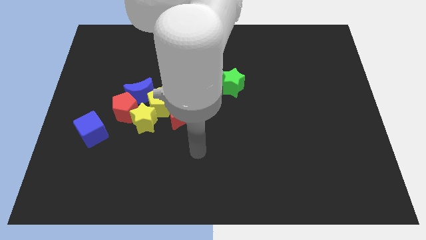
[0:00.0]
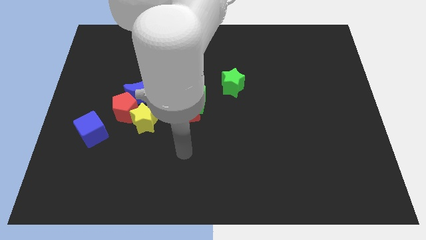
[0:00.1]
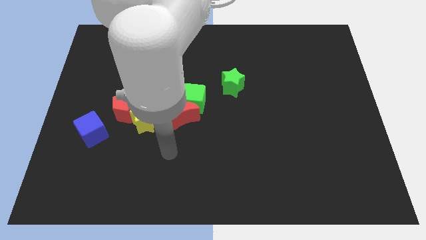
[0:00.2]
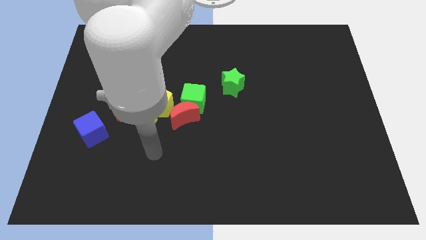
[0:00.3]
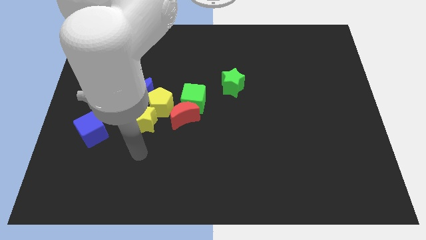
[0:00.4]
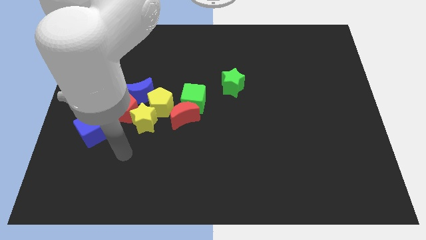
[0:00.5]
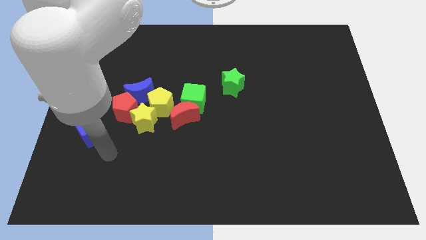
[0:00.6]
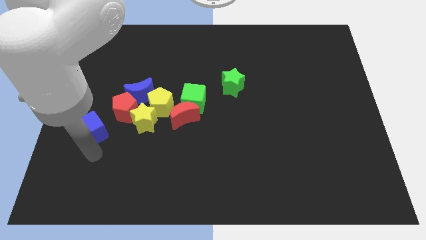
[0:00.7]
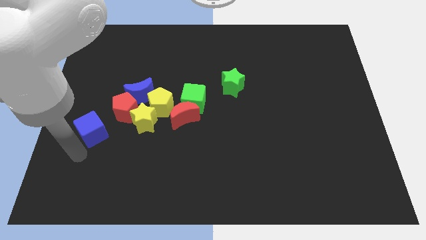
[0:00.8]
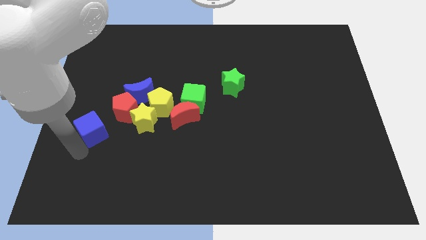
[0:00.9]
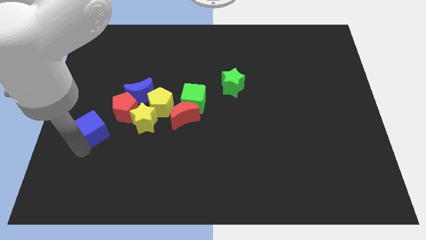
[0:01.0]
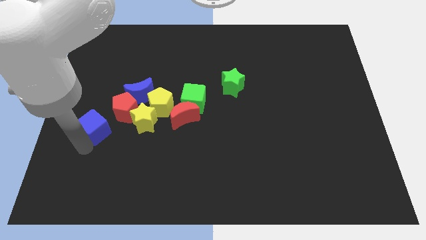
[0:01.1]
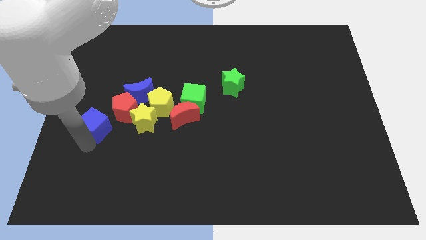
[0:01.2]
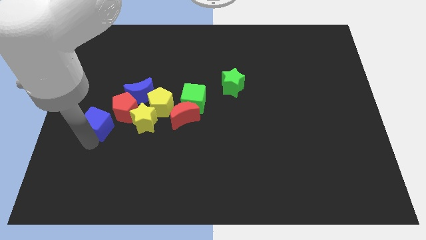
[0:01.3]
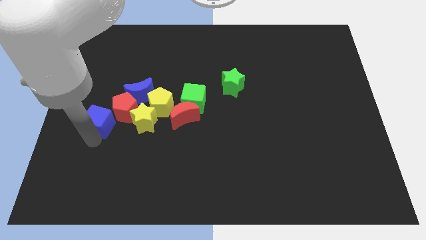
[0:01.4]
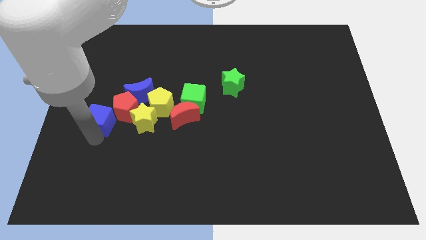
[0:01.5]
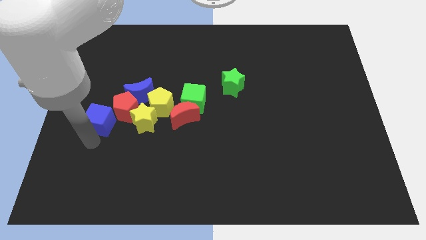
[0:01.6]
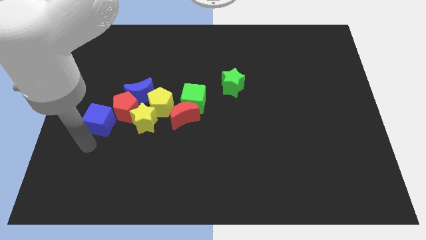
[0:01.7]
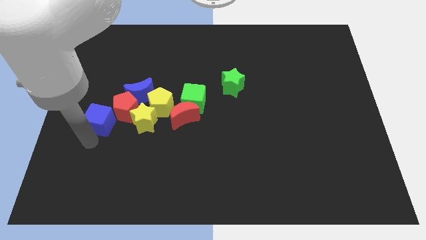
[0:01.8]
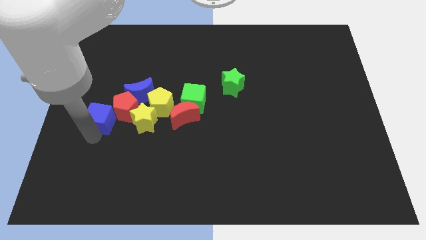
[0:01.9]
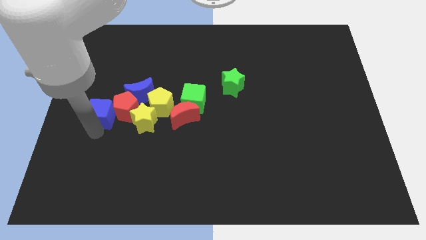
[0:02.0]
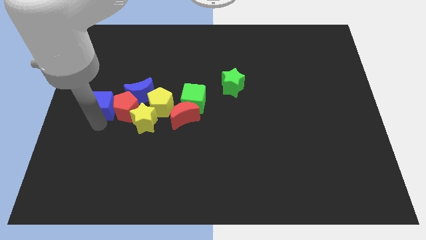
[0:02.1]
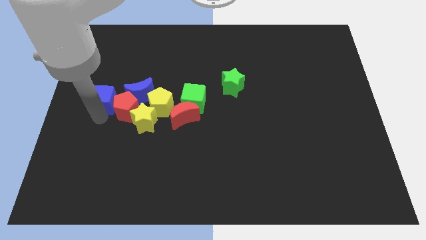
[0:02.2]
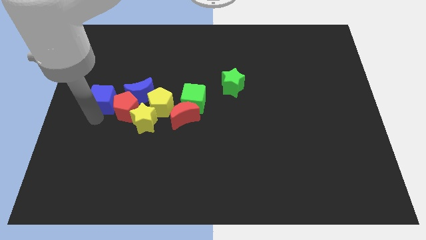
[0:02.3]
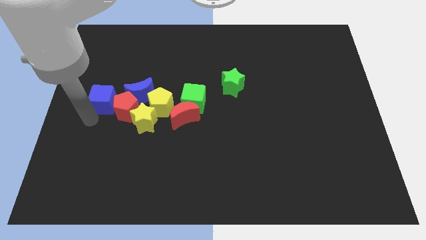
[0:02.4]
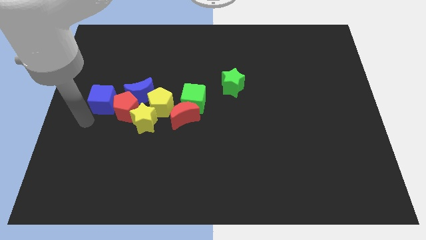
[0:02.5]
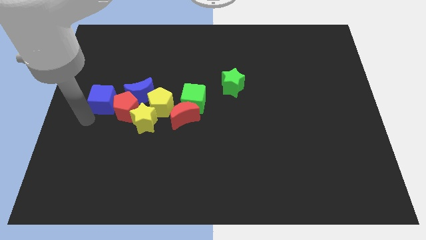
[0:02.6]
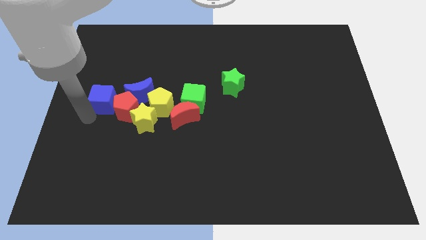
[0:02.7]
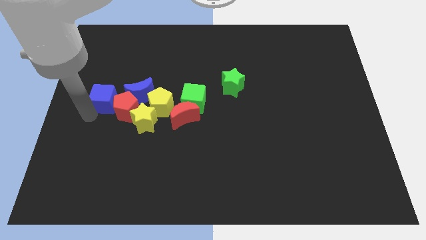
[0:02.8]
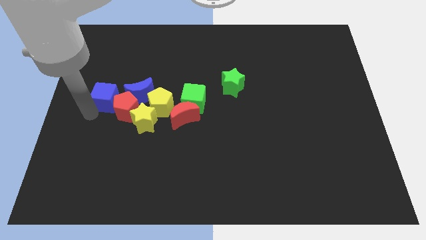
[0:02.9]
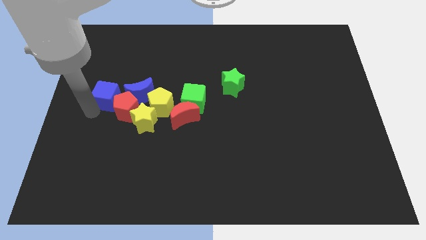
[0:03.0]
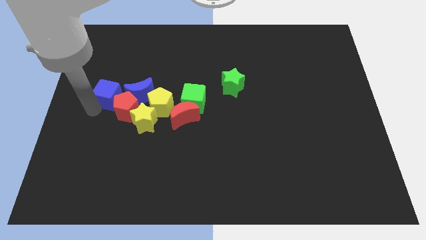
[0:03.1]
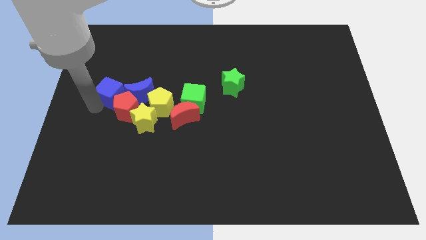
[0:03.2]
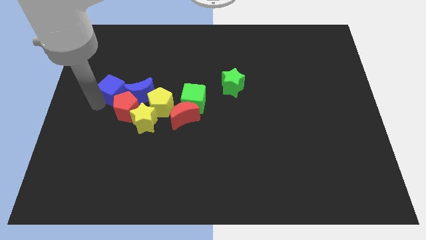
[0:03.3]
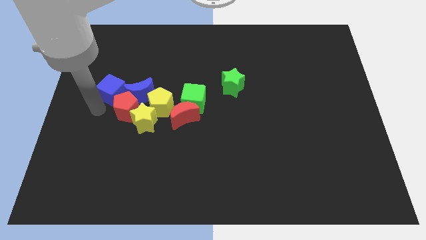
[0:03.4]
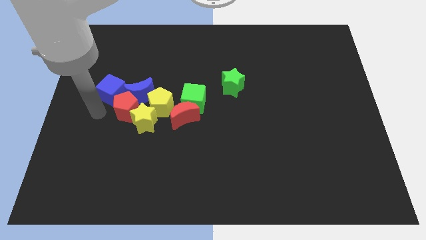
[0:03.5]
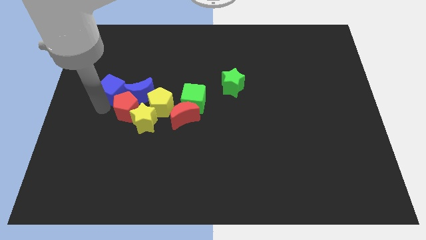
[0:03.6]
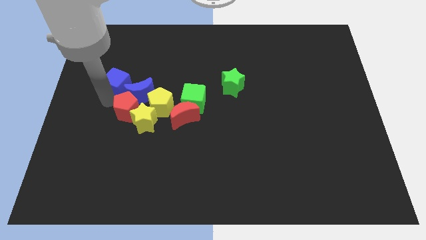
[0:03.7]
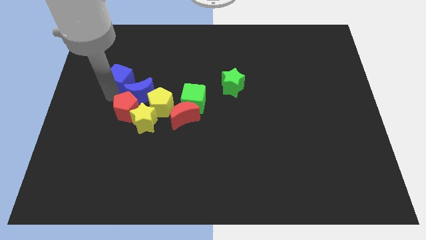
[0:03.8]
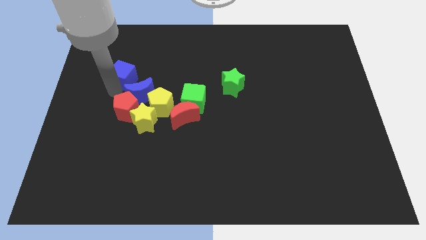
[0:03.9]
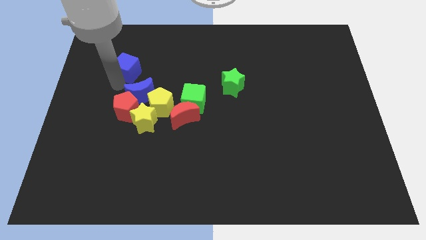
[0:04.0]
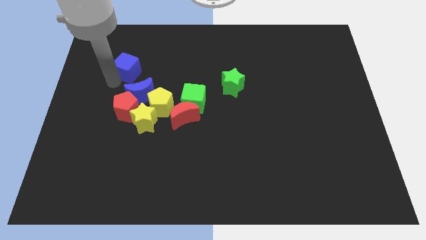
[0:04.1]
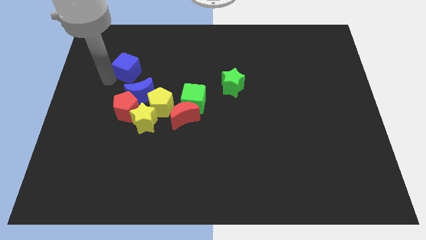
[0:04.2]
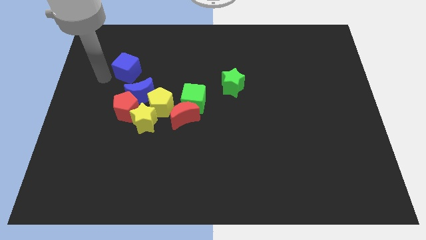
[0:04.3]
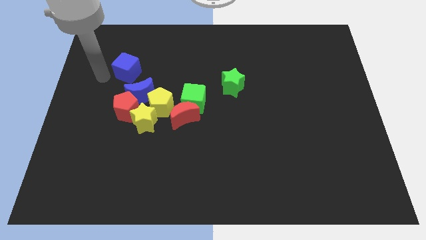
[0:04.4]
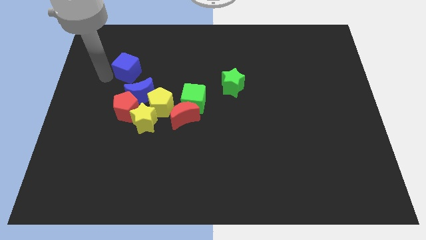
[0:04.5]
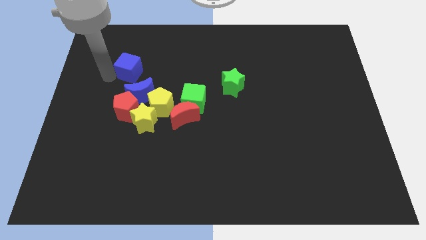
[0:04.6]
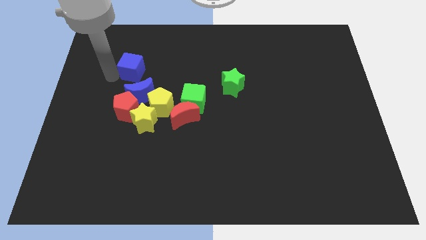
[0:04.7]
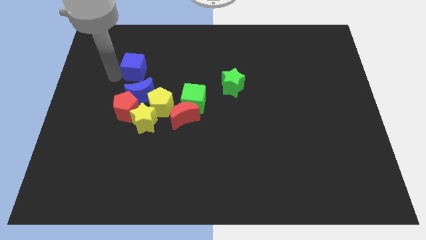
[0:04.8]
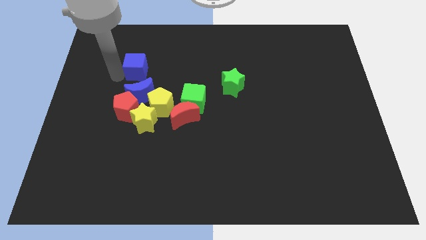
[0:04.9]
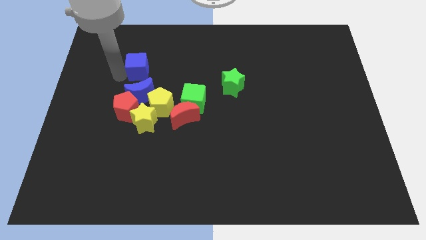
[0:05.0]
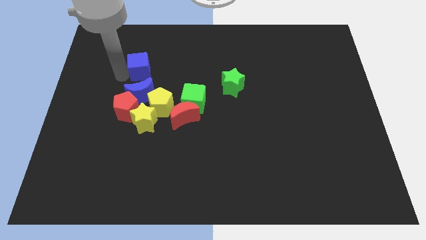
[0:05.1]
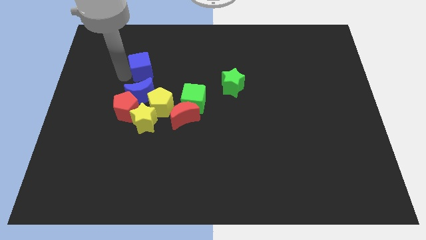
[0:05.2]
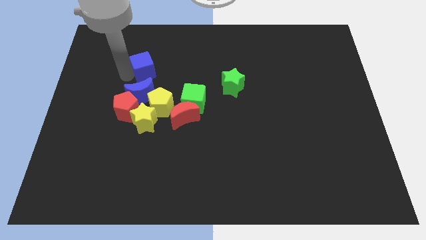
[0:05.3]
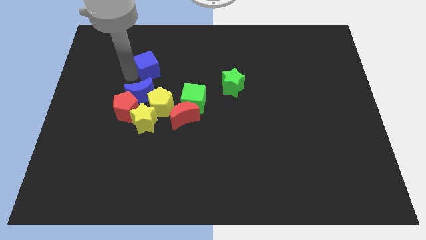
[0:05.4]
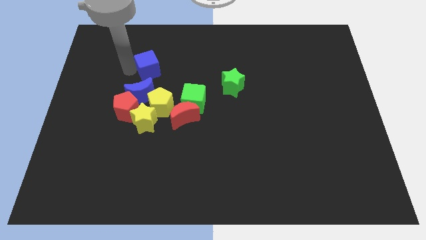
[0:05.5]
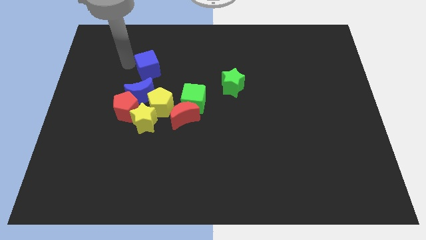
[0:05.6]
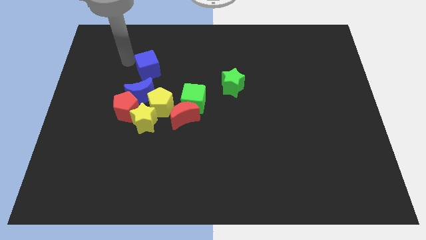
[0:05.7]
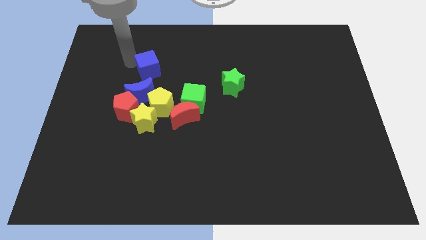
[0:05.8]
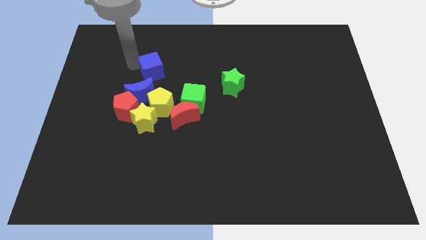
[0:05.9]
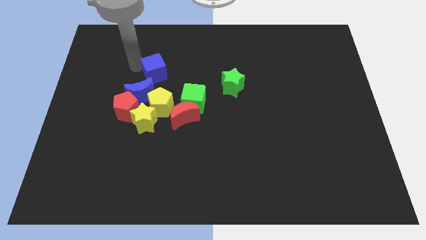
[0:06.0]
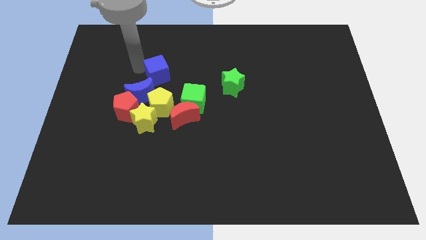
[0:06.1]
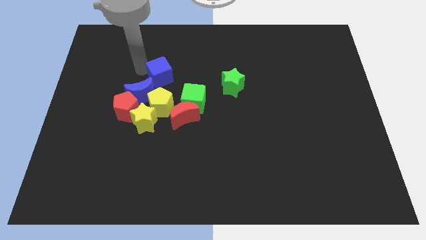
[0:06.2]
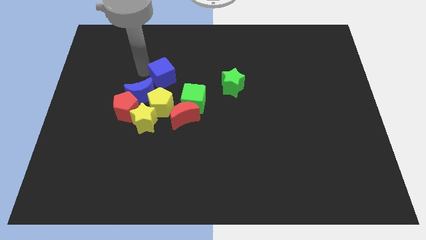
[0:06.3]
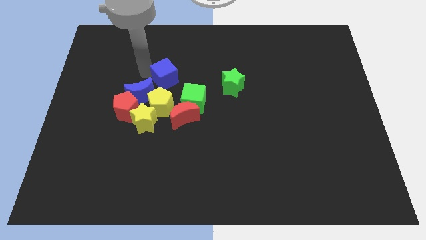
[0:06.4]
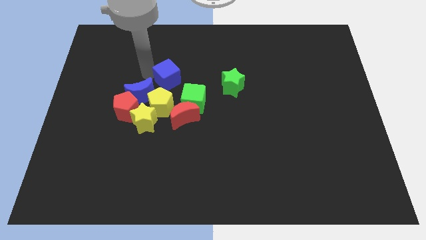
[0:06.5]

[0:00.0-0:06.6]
put the blue cube to the top of the red moon

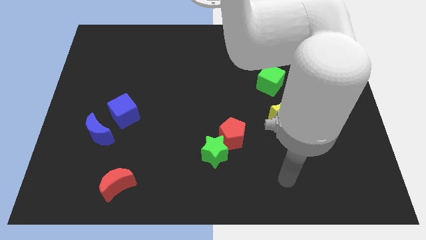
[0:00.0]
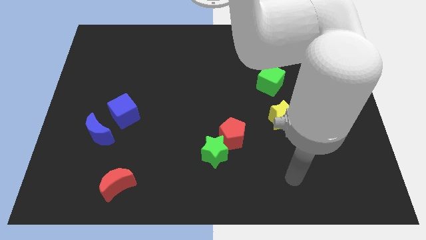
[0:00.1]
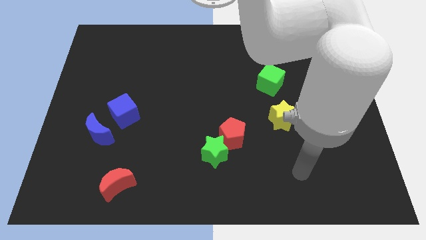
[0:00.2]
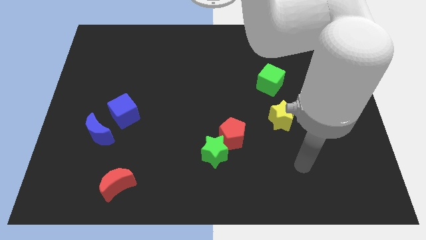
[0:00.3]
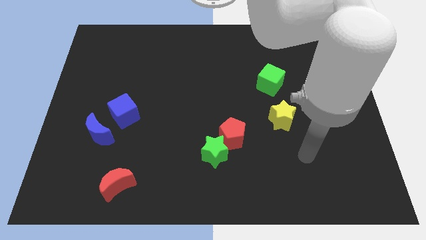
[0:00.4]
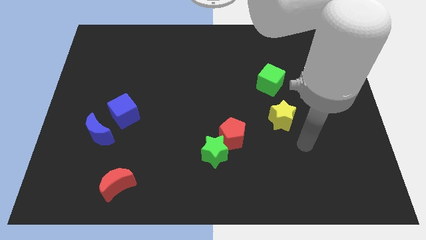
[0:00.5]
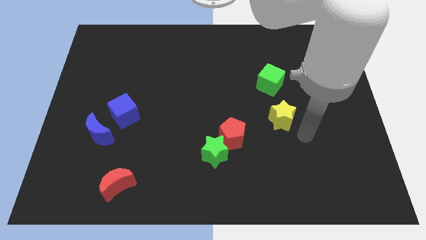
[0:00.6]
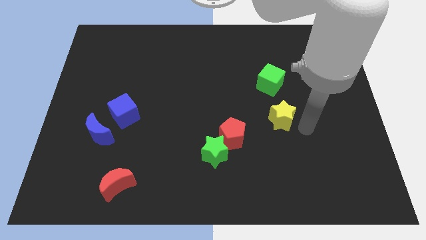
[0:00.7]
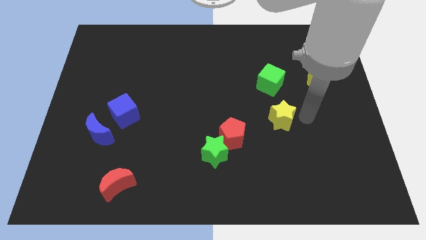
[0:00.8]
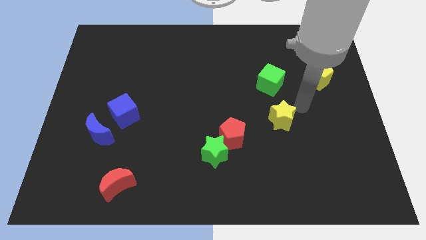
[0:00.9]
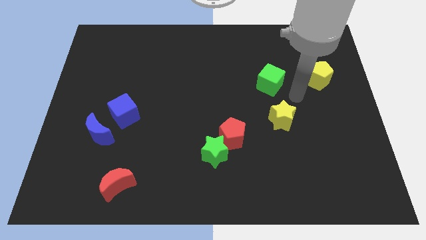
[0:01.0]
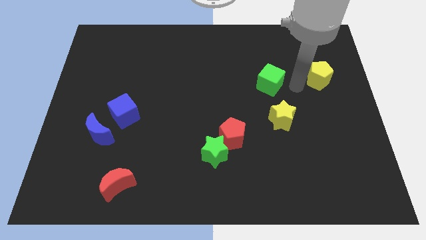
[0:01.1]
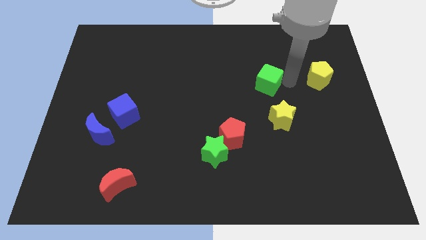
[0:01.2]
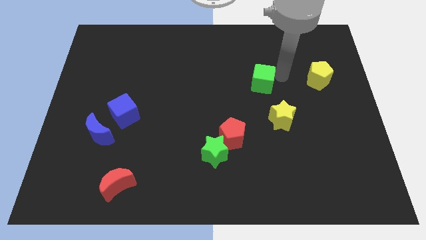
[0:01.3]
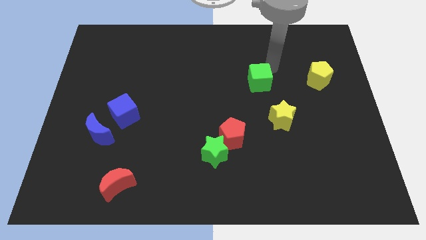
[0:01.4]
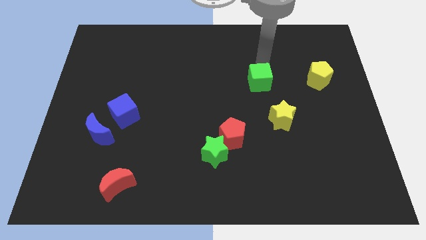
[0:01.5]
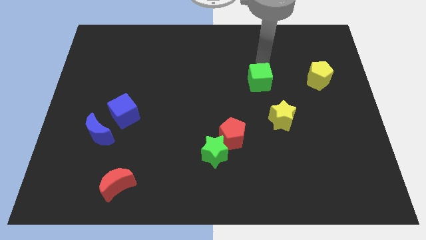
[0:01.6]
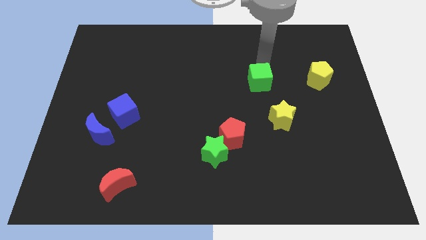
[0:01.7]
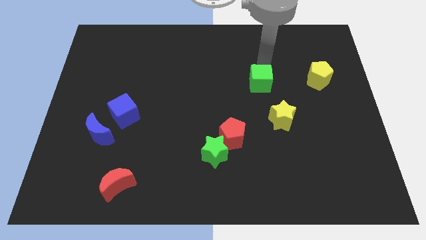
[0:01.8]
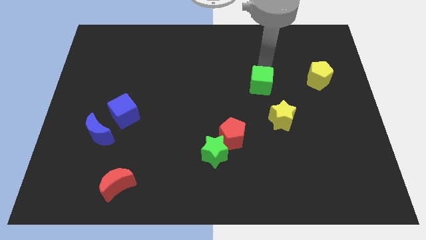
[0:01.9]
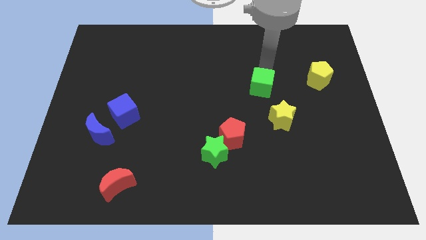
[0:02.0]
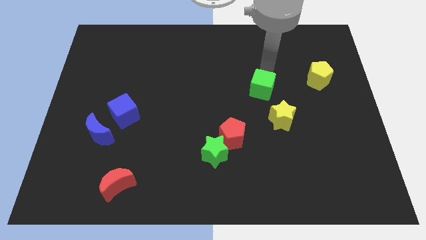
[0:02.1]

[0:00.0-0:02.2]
push the green cube to the top left of the yellow star
